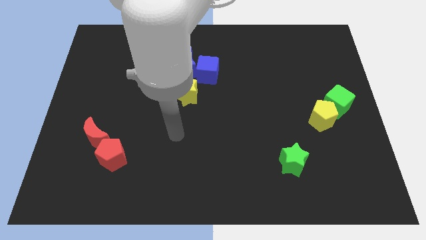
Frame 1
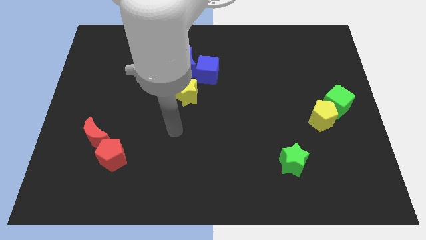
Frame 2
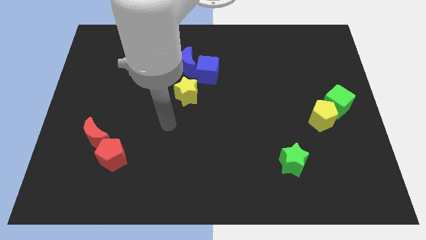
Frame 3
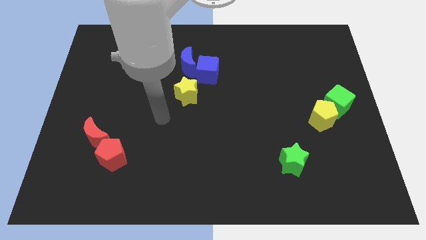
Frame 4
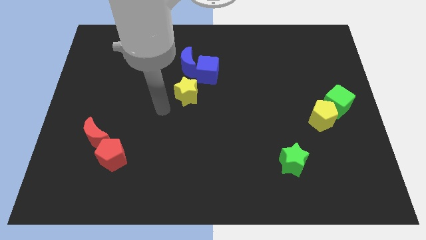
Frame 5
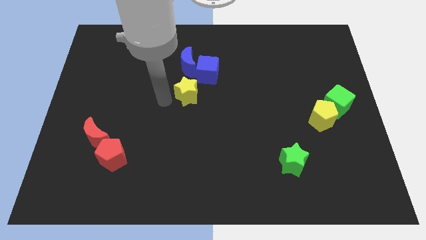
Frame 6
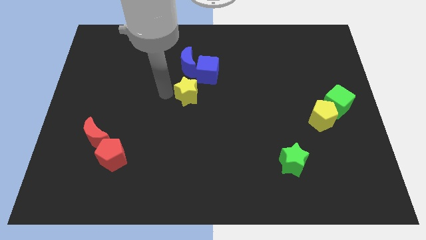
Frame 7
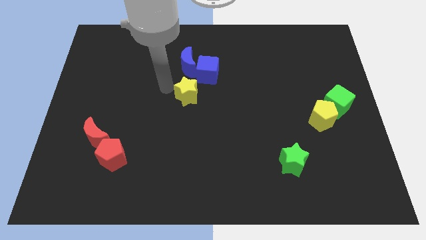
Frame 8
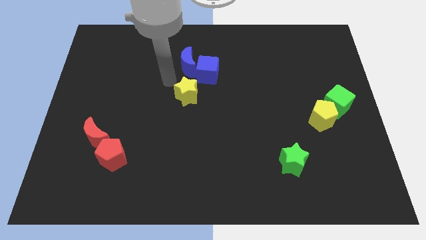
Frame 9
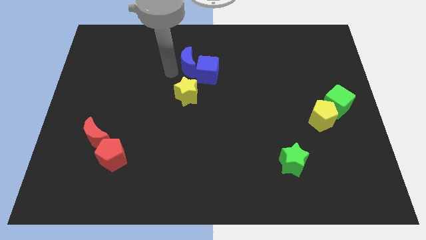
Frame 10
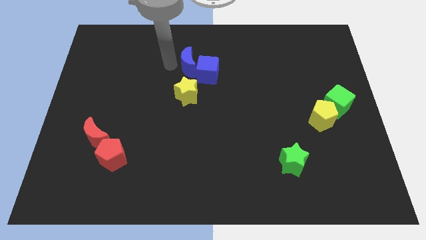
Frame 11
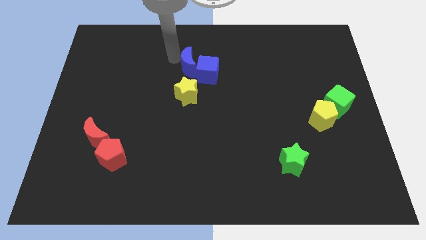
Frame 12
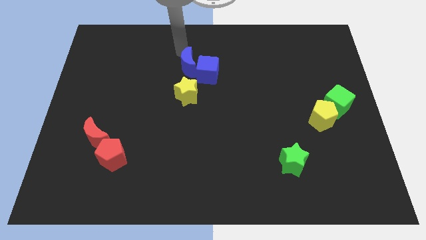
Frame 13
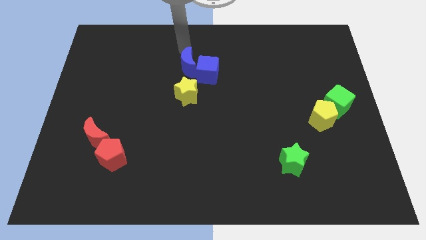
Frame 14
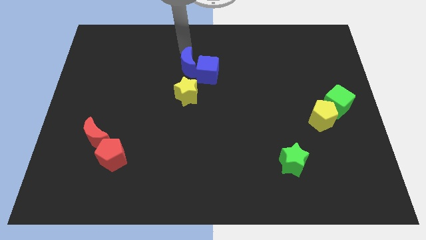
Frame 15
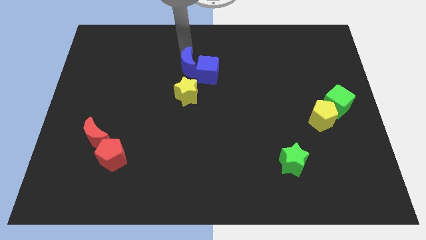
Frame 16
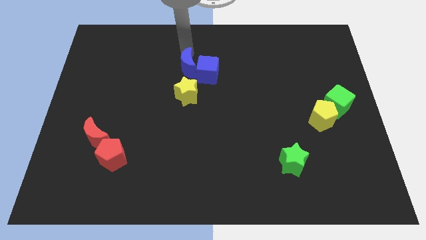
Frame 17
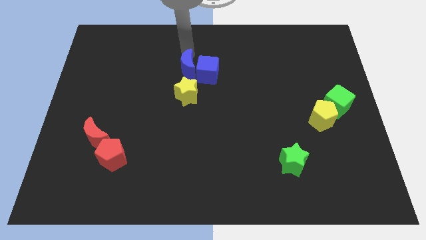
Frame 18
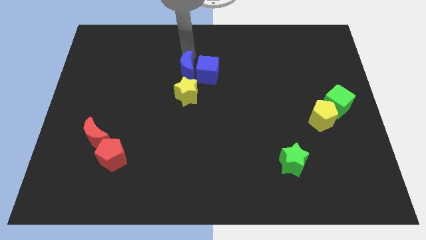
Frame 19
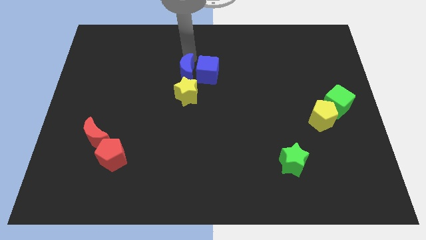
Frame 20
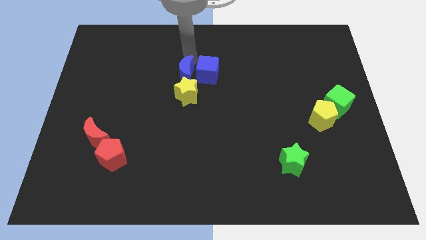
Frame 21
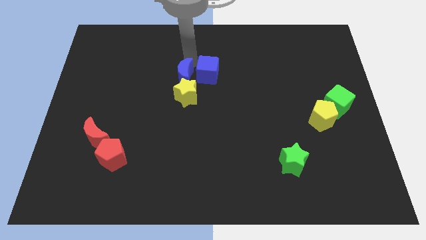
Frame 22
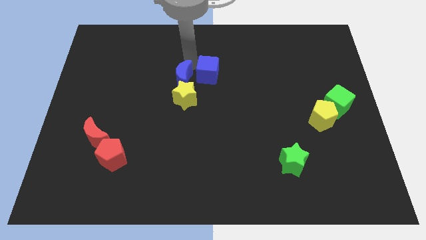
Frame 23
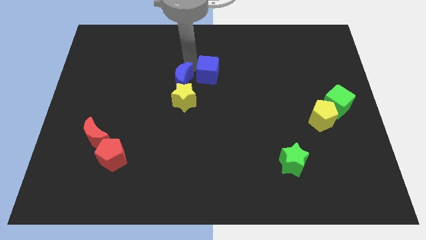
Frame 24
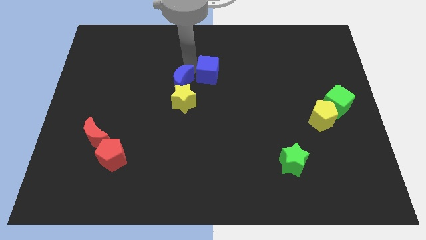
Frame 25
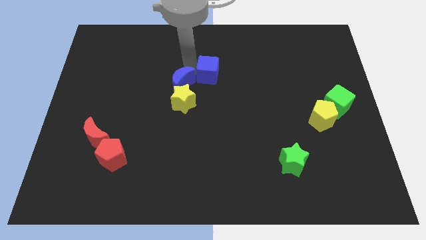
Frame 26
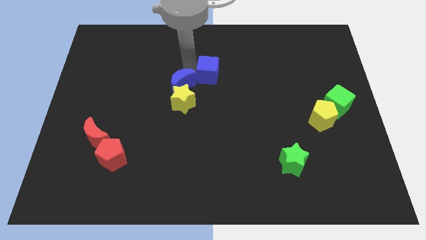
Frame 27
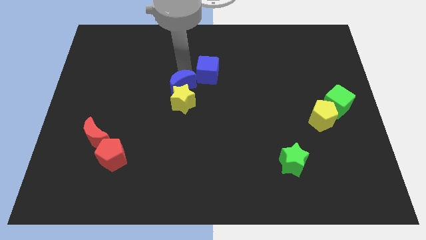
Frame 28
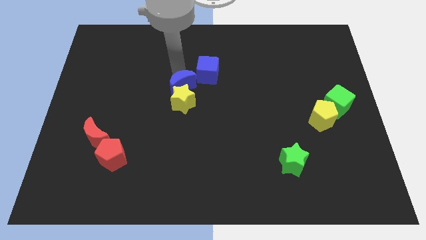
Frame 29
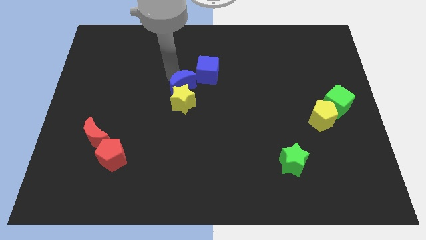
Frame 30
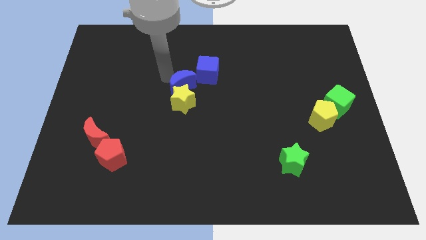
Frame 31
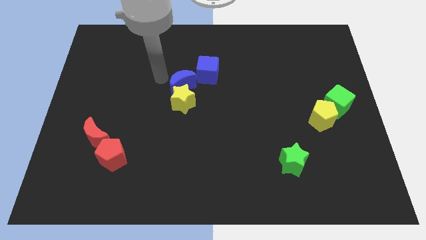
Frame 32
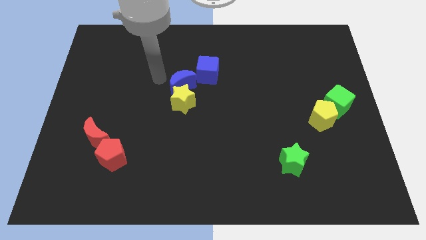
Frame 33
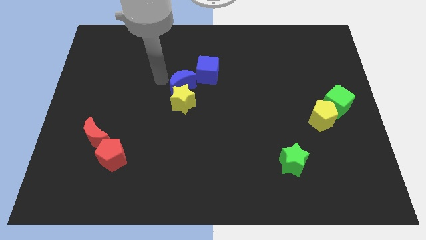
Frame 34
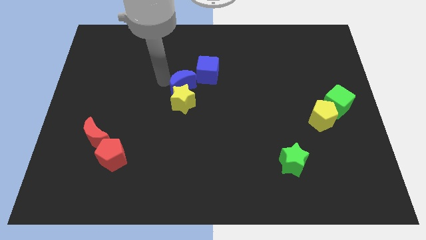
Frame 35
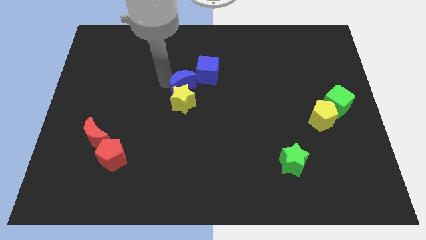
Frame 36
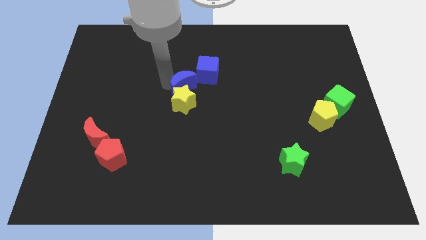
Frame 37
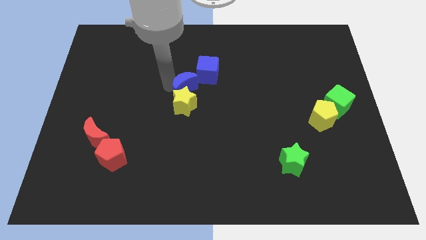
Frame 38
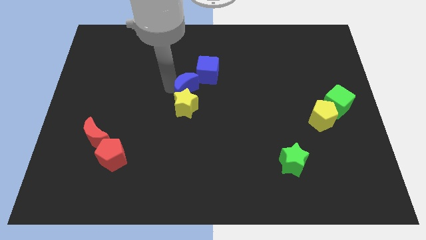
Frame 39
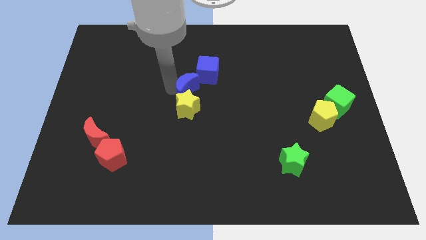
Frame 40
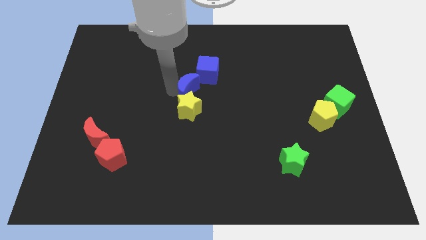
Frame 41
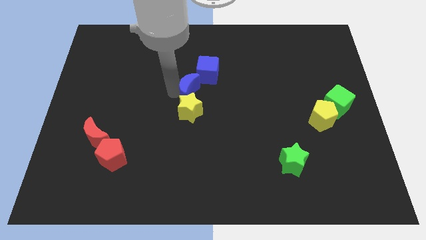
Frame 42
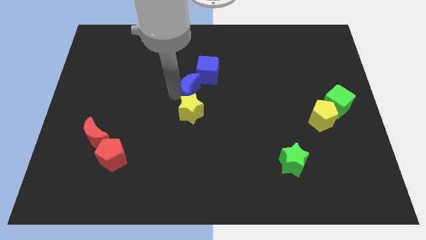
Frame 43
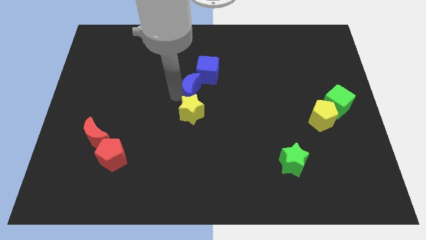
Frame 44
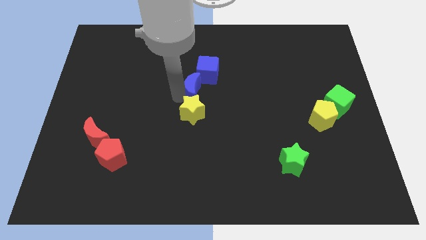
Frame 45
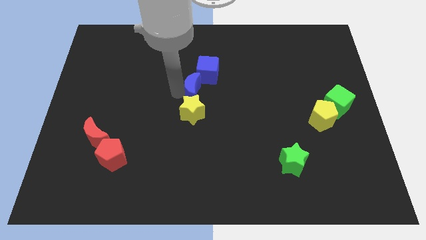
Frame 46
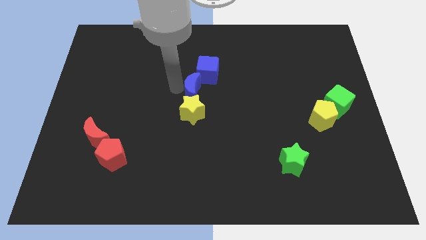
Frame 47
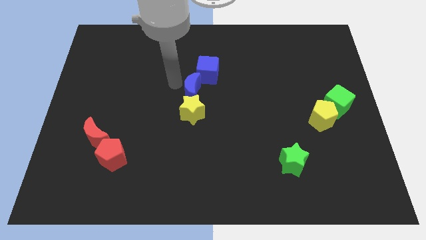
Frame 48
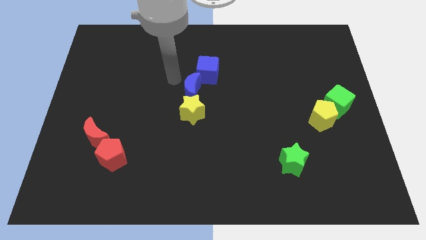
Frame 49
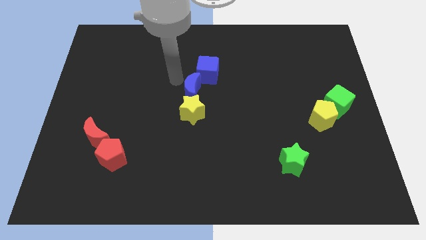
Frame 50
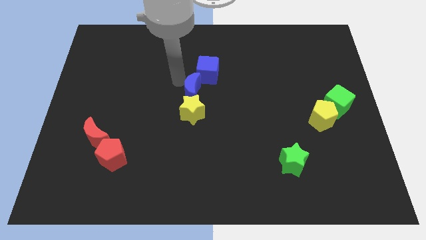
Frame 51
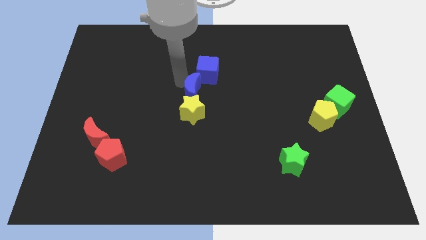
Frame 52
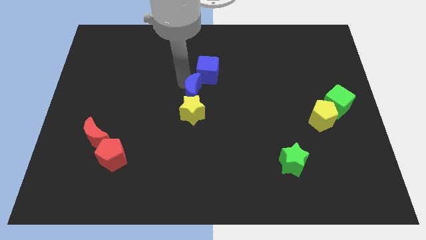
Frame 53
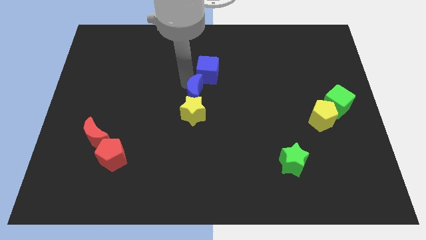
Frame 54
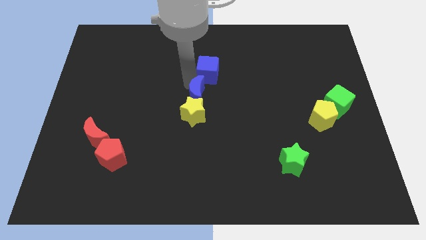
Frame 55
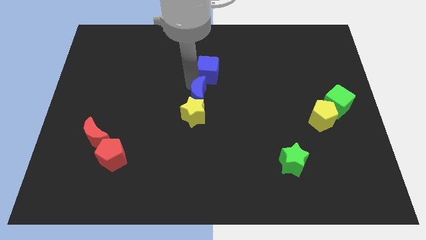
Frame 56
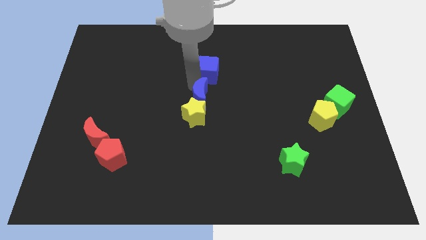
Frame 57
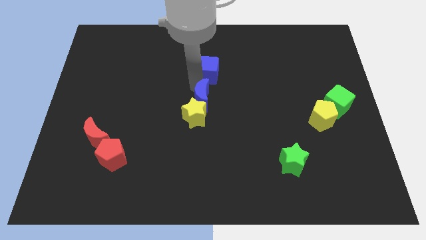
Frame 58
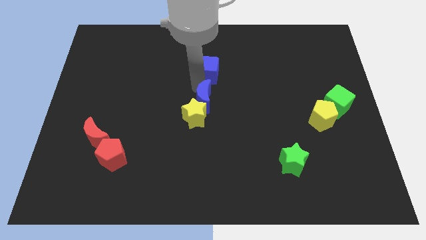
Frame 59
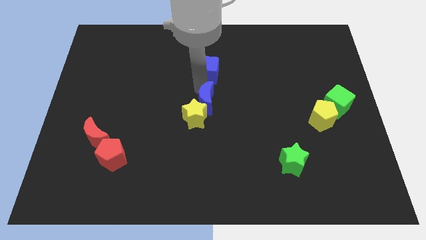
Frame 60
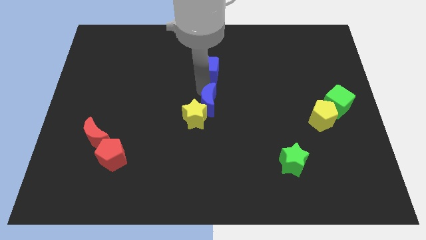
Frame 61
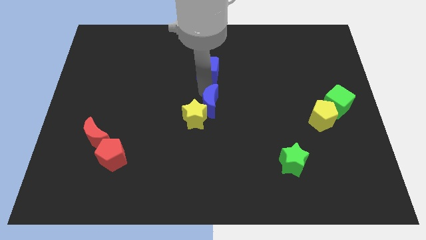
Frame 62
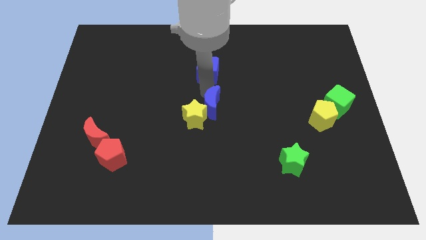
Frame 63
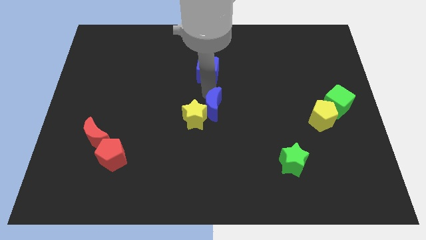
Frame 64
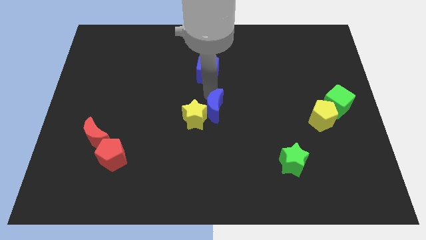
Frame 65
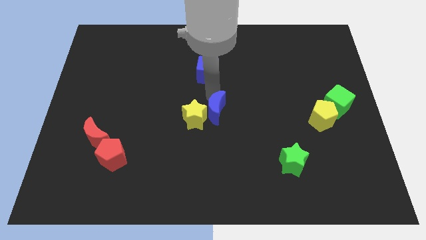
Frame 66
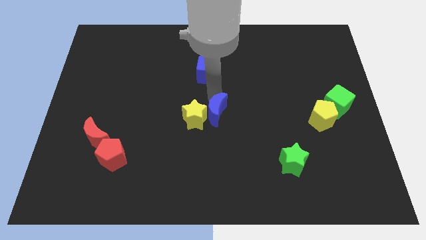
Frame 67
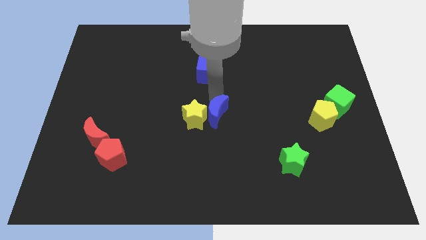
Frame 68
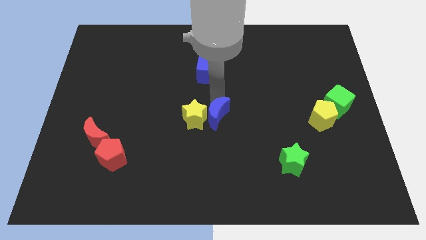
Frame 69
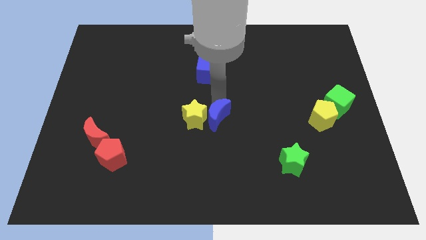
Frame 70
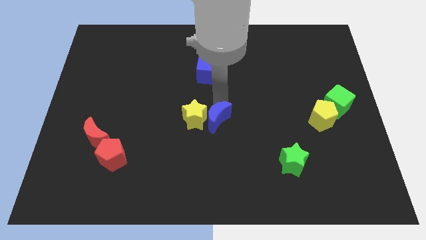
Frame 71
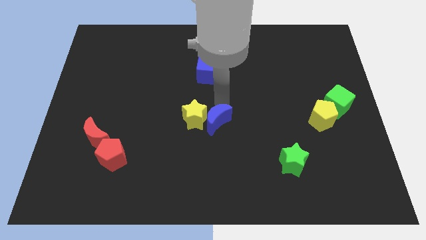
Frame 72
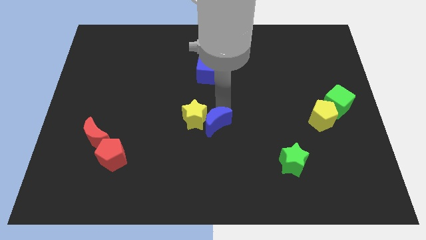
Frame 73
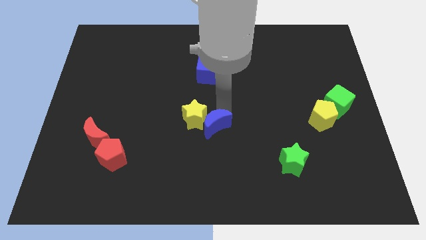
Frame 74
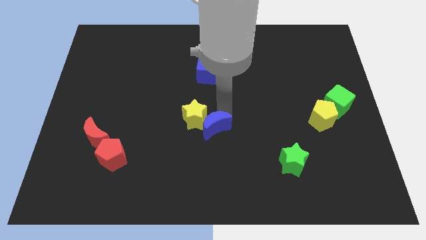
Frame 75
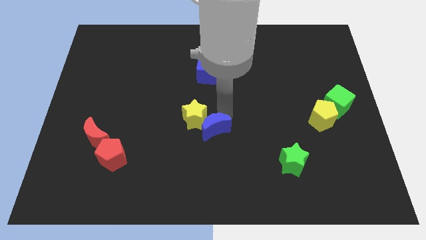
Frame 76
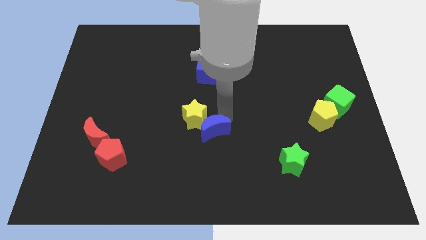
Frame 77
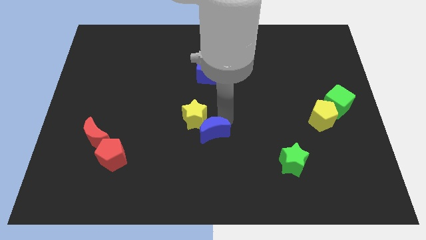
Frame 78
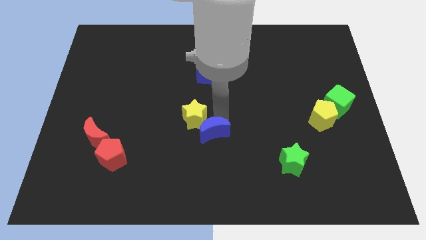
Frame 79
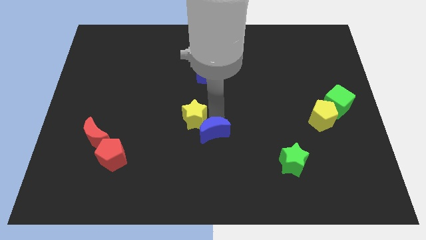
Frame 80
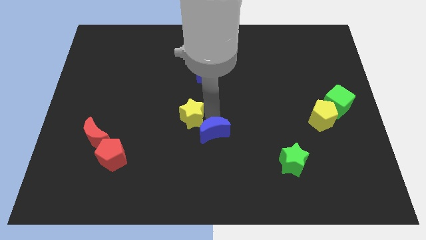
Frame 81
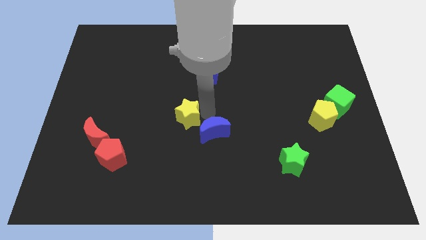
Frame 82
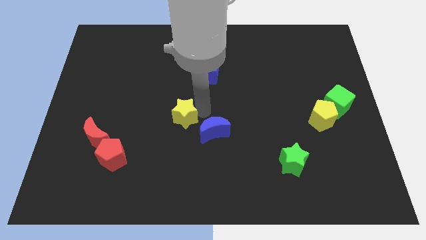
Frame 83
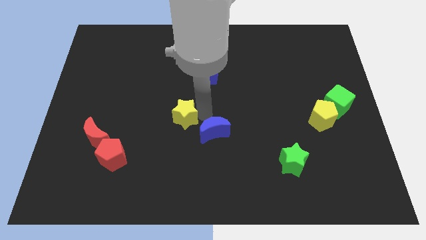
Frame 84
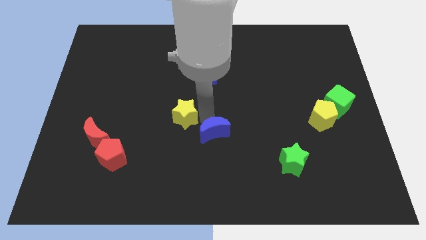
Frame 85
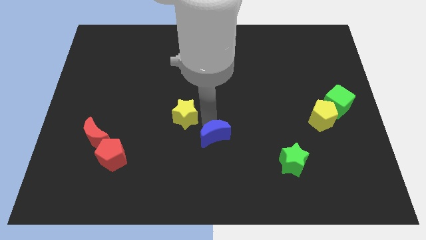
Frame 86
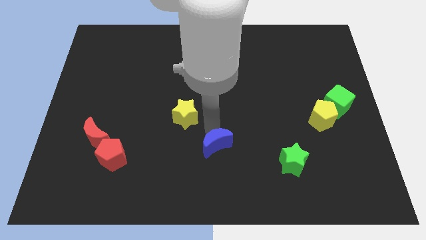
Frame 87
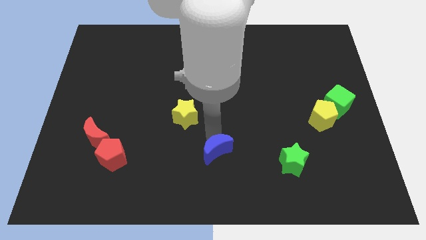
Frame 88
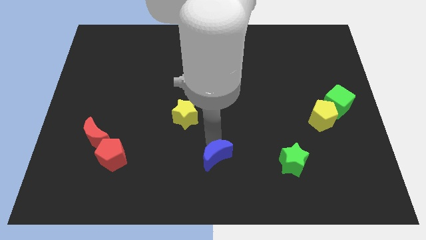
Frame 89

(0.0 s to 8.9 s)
move the blue moon to the bottom side
